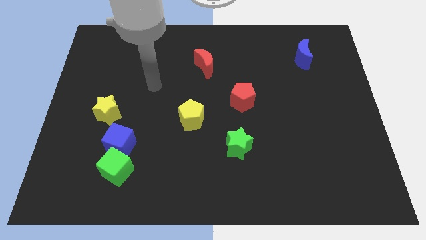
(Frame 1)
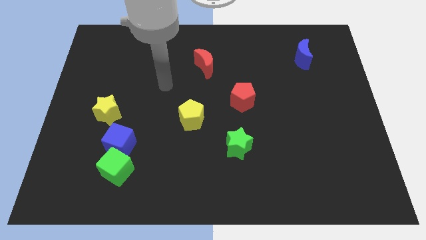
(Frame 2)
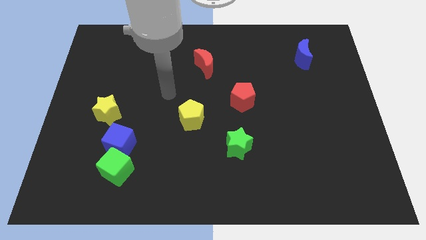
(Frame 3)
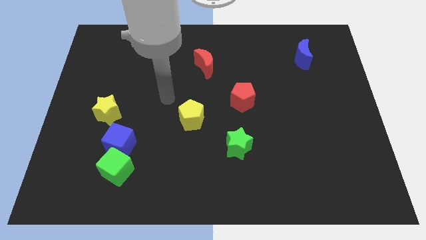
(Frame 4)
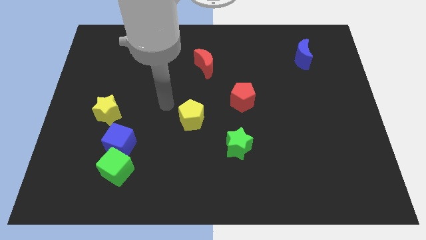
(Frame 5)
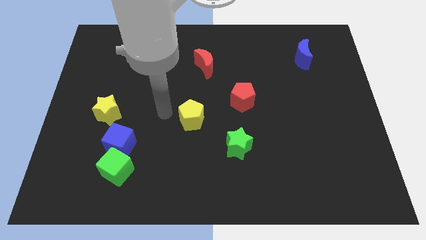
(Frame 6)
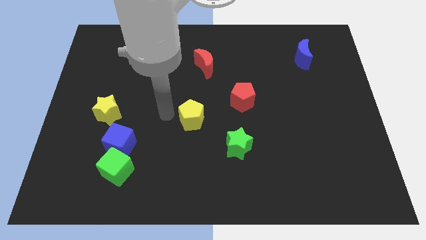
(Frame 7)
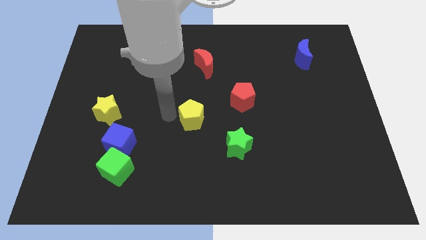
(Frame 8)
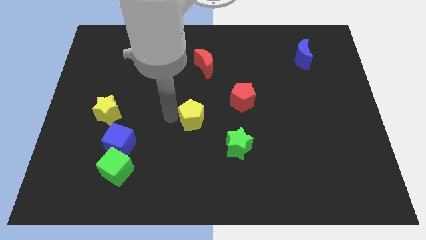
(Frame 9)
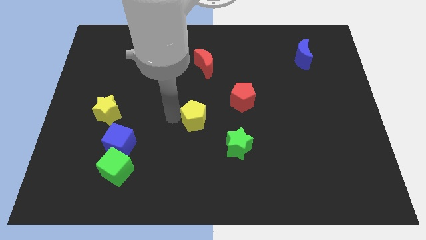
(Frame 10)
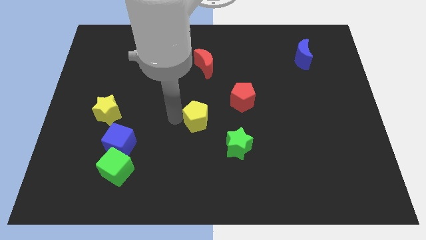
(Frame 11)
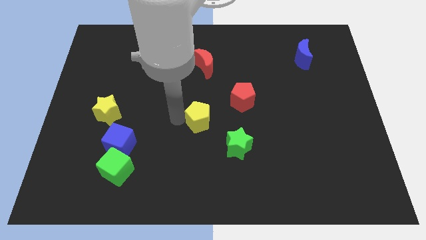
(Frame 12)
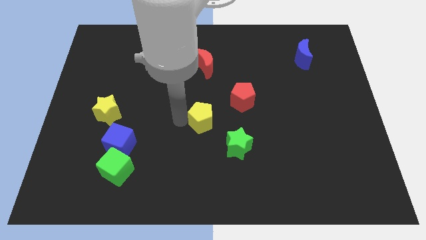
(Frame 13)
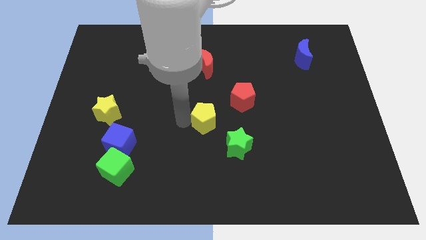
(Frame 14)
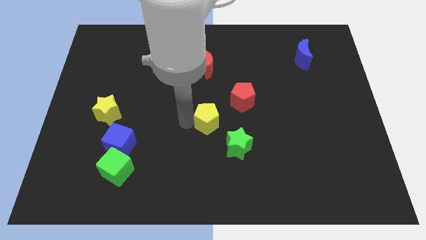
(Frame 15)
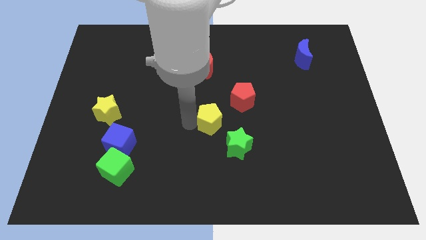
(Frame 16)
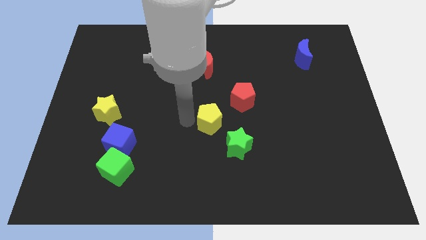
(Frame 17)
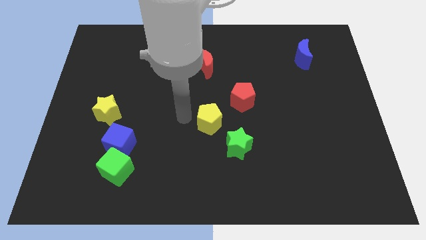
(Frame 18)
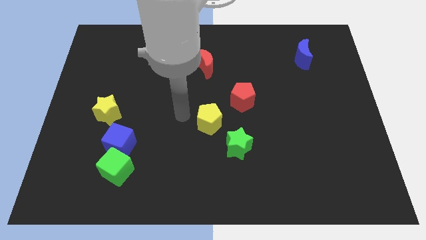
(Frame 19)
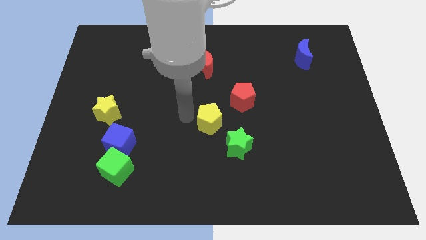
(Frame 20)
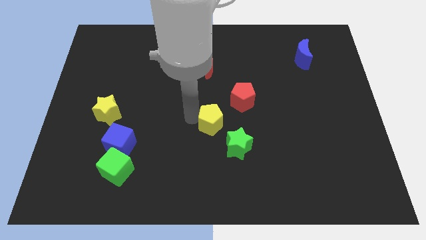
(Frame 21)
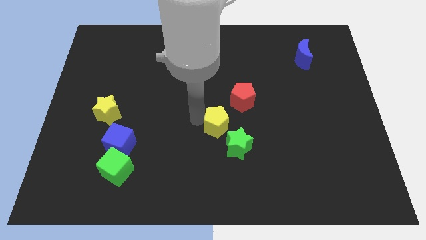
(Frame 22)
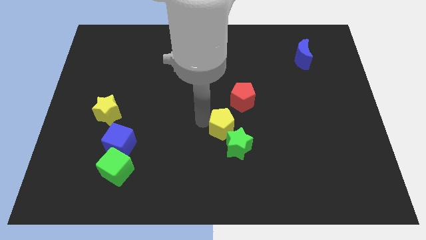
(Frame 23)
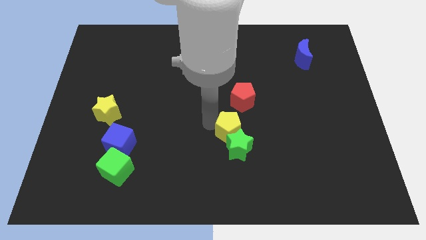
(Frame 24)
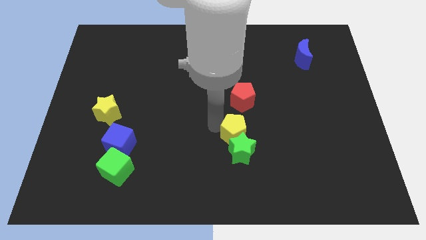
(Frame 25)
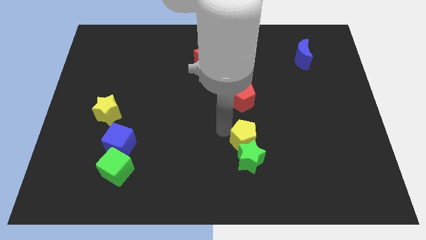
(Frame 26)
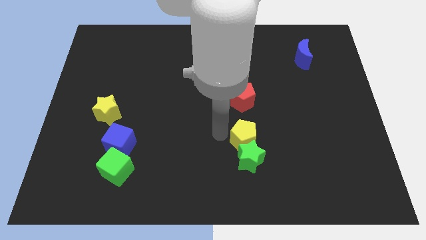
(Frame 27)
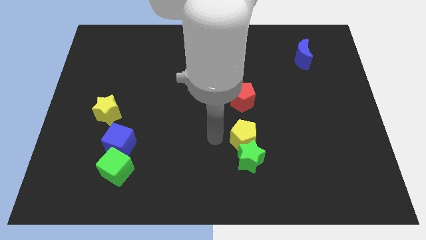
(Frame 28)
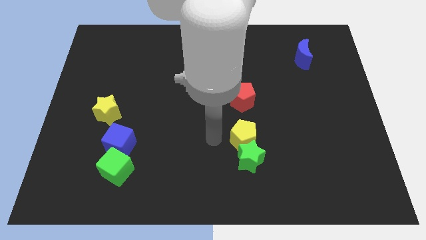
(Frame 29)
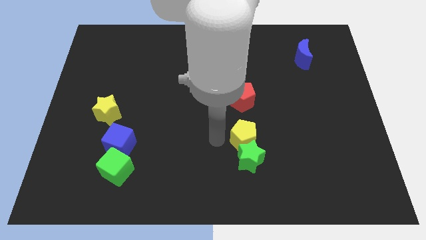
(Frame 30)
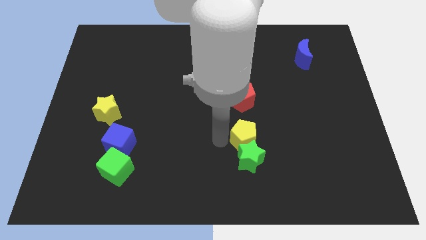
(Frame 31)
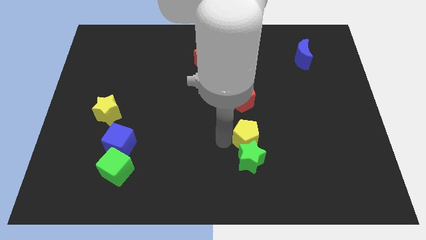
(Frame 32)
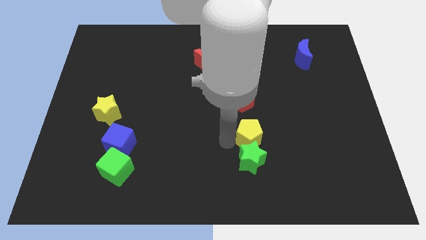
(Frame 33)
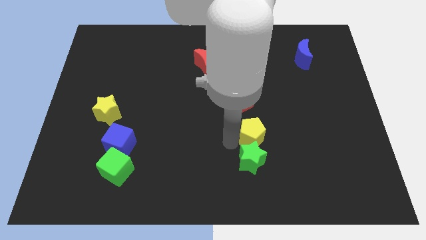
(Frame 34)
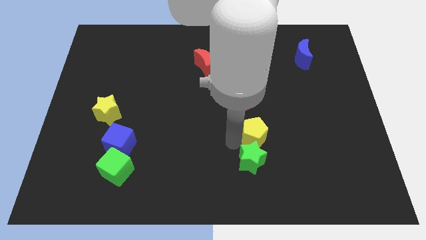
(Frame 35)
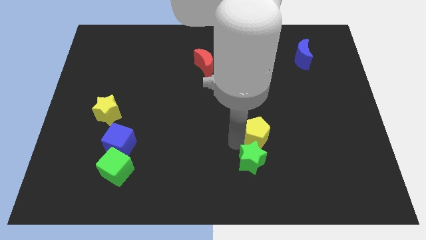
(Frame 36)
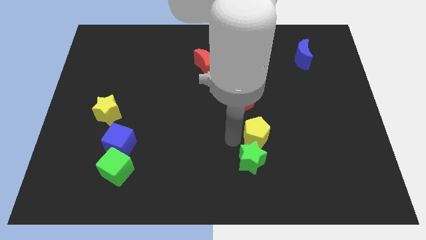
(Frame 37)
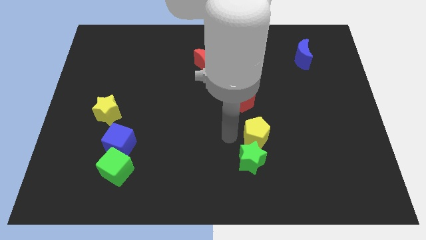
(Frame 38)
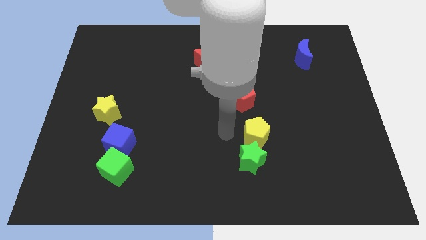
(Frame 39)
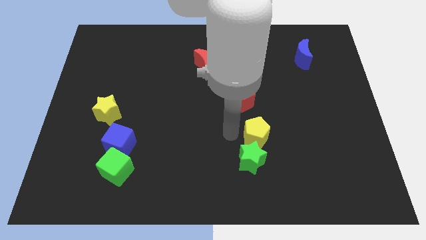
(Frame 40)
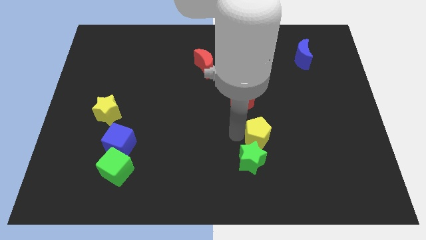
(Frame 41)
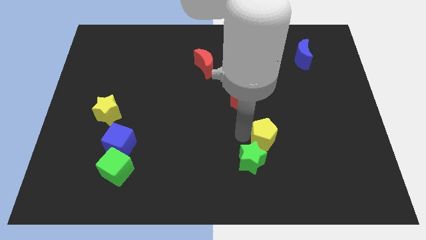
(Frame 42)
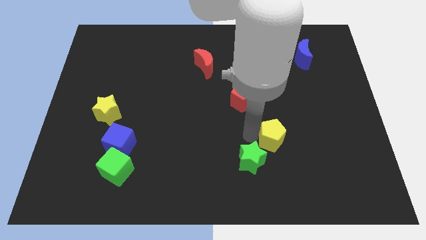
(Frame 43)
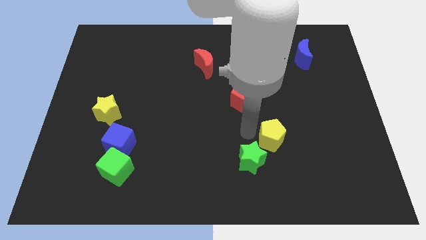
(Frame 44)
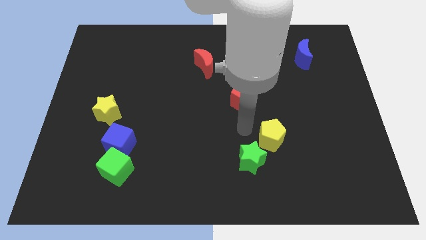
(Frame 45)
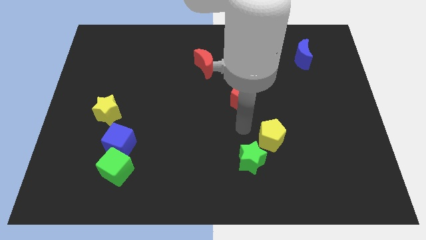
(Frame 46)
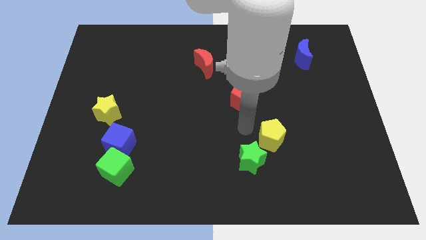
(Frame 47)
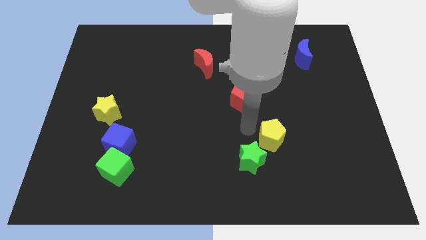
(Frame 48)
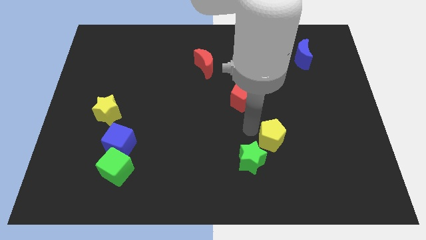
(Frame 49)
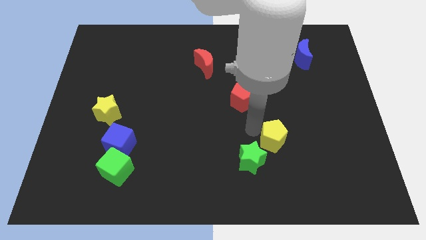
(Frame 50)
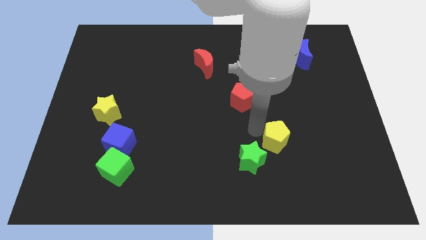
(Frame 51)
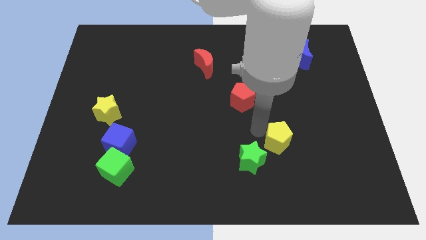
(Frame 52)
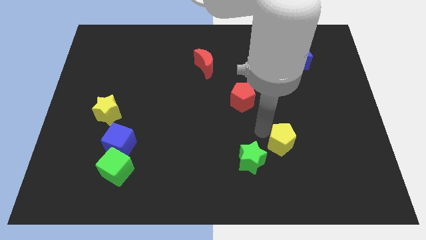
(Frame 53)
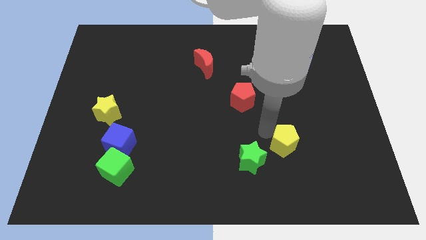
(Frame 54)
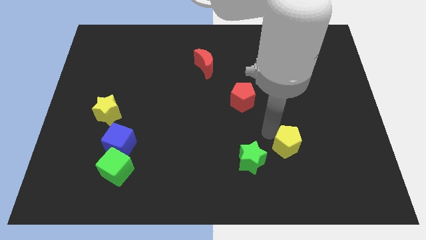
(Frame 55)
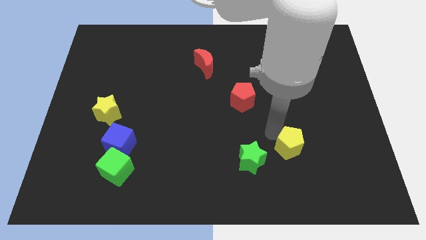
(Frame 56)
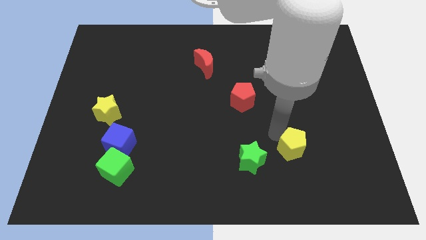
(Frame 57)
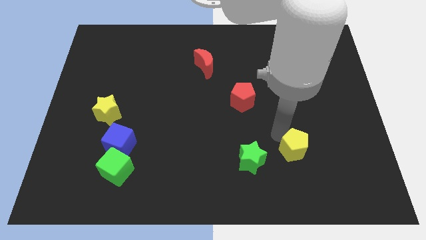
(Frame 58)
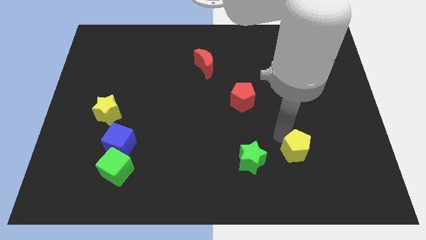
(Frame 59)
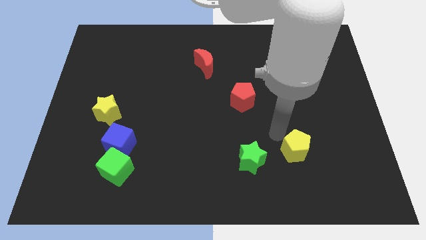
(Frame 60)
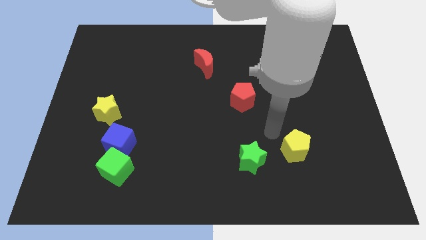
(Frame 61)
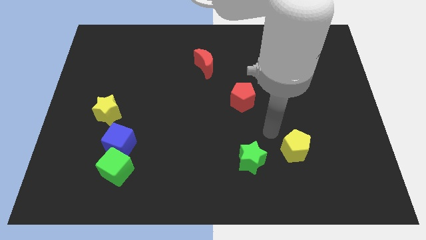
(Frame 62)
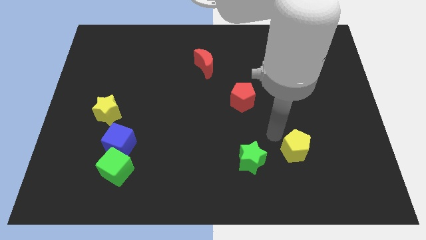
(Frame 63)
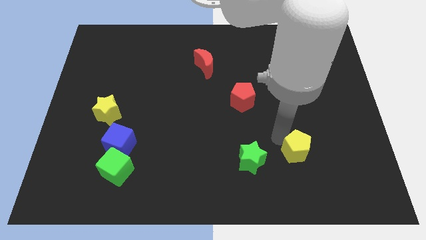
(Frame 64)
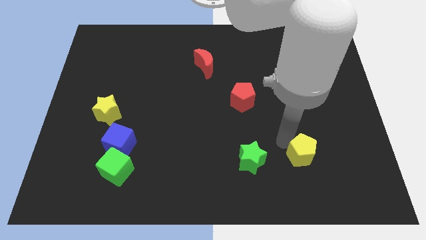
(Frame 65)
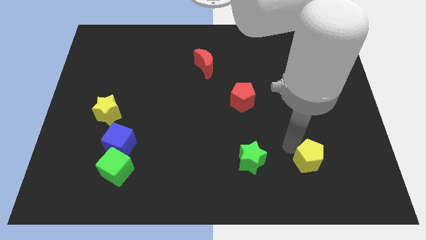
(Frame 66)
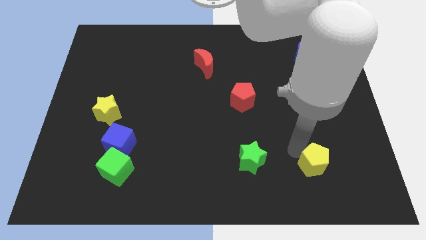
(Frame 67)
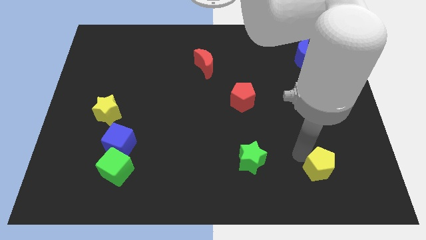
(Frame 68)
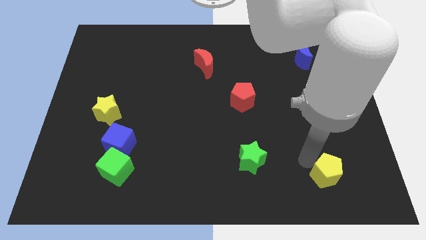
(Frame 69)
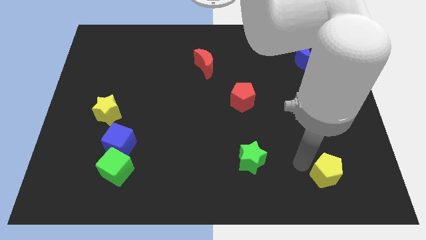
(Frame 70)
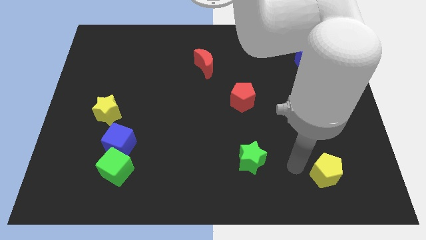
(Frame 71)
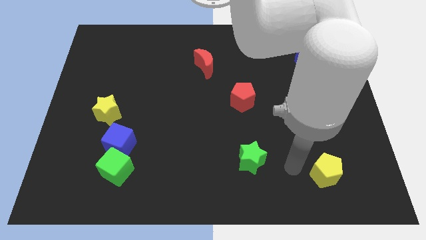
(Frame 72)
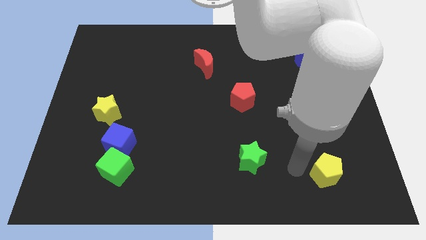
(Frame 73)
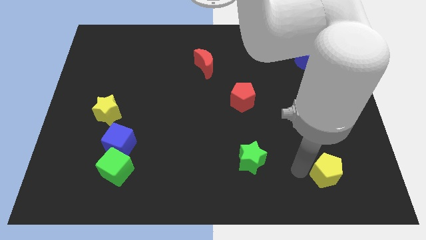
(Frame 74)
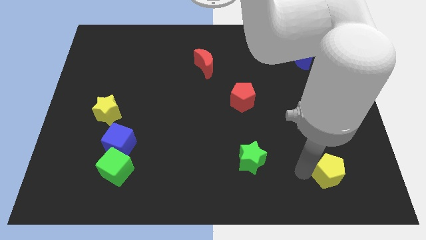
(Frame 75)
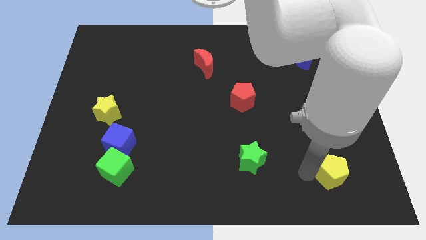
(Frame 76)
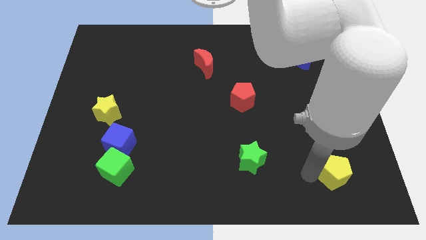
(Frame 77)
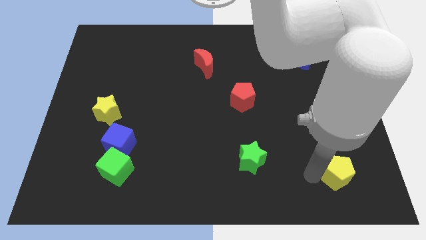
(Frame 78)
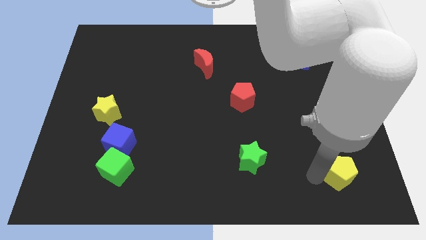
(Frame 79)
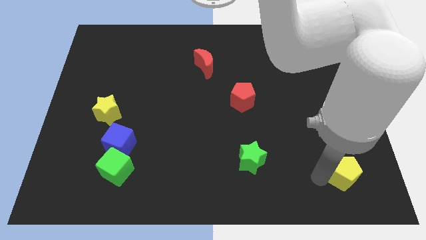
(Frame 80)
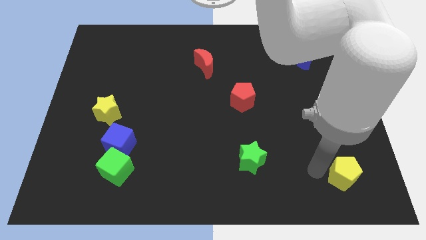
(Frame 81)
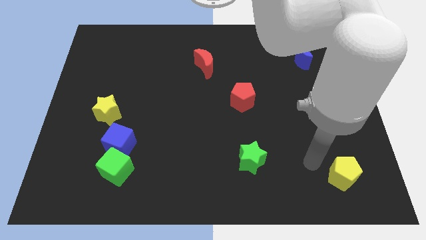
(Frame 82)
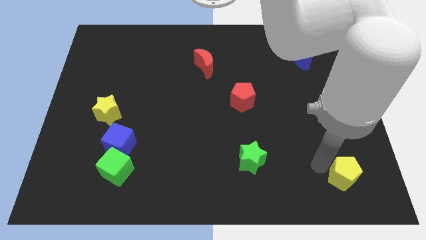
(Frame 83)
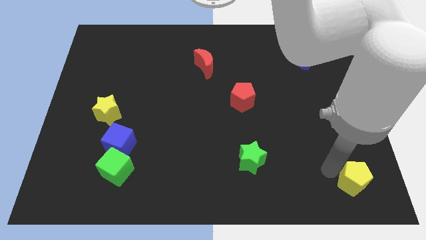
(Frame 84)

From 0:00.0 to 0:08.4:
push the yellow pentagon to the bottom right of the board
